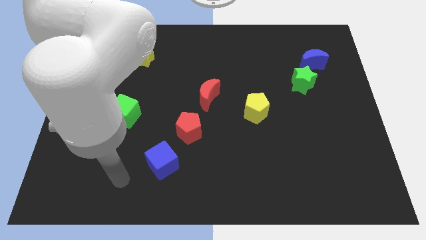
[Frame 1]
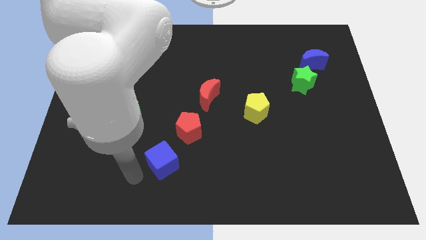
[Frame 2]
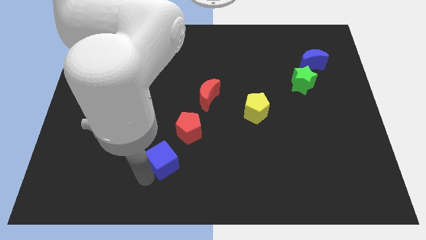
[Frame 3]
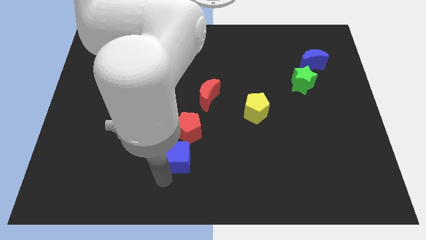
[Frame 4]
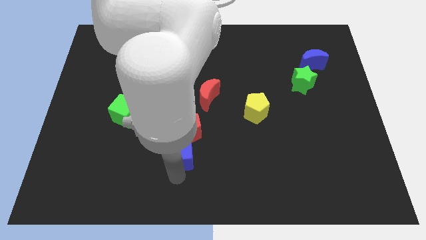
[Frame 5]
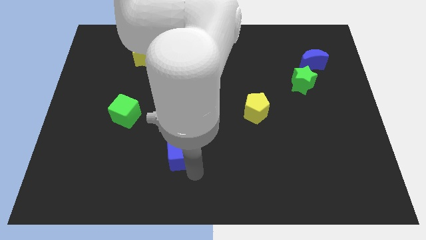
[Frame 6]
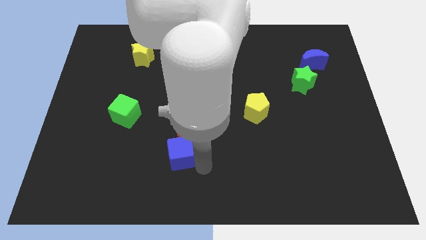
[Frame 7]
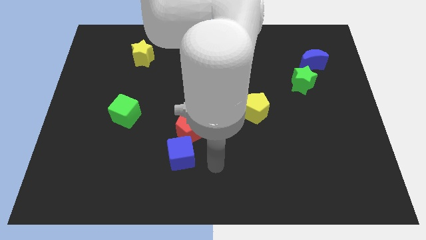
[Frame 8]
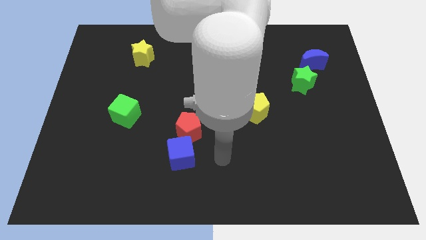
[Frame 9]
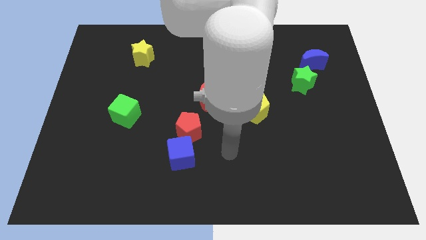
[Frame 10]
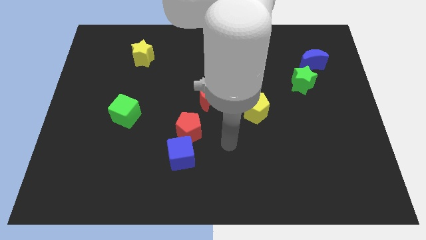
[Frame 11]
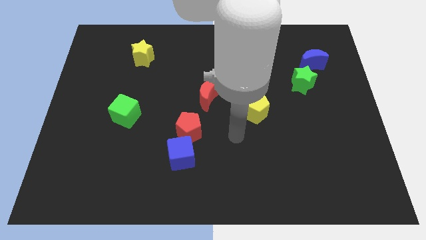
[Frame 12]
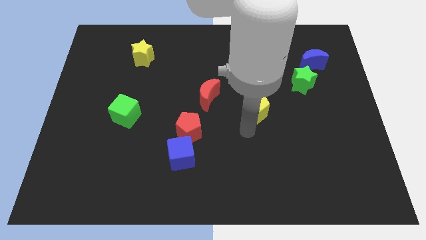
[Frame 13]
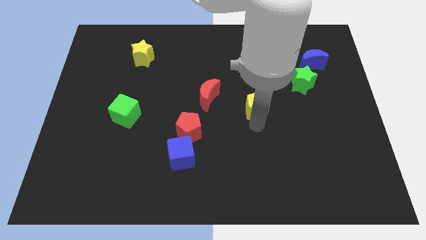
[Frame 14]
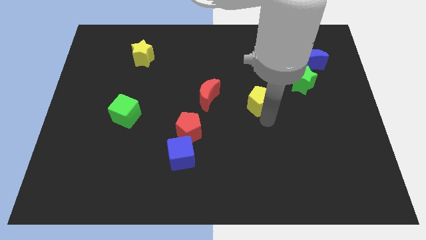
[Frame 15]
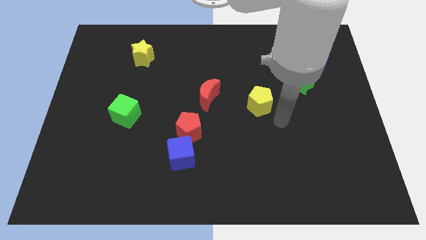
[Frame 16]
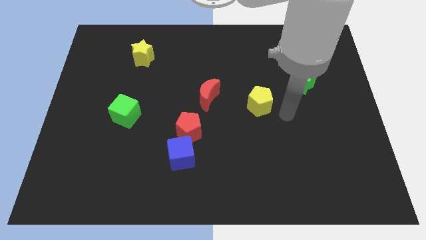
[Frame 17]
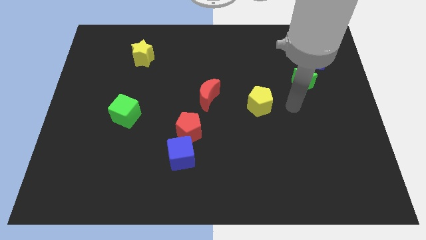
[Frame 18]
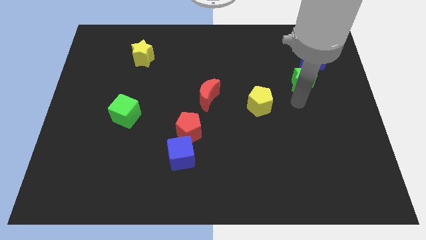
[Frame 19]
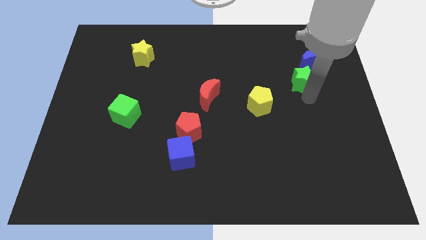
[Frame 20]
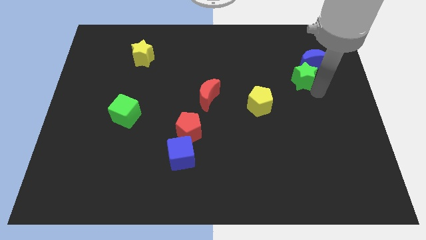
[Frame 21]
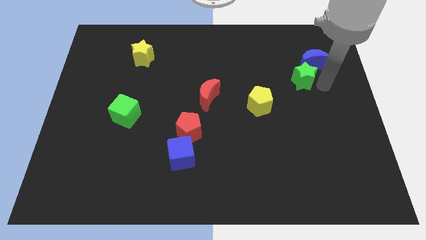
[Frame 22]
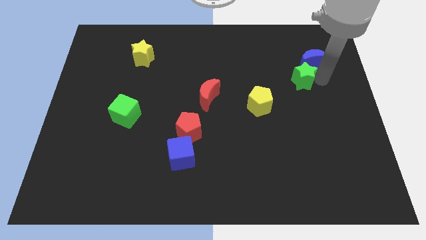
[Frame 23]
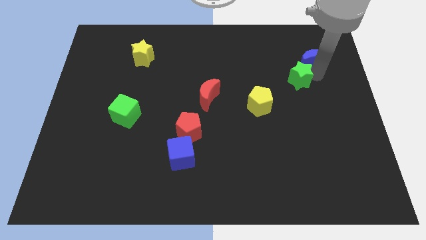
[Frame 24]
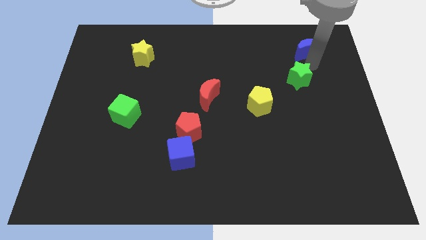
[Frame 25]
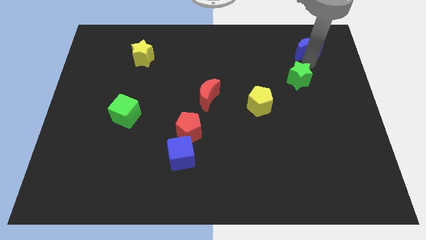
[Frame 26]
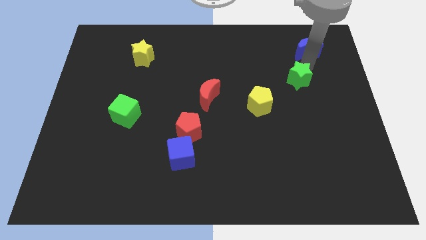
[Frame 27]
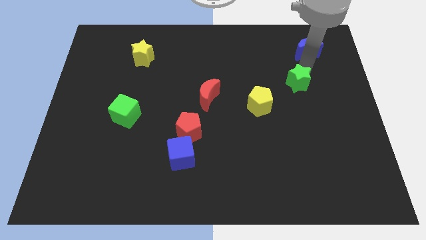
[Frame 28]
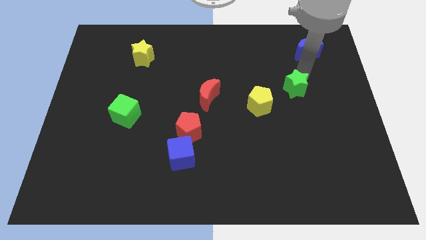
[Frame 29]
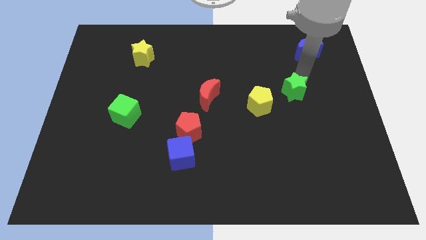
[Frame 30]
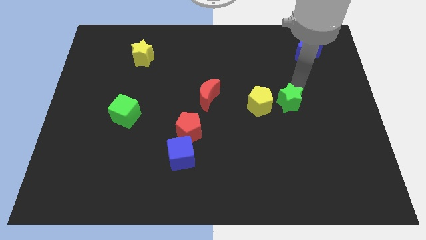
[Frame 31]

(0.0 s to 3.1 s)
slightly push the green star downwards and to the left

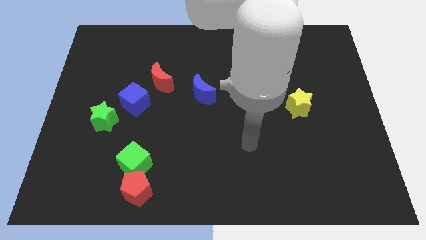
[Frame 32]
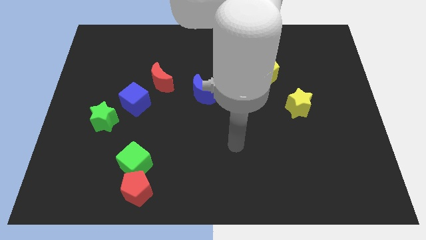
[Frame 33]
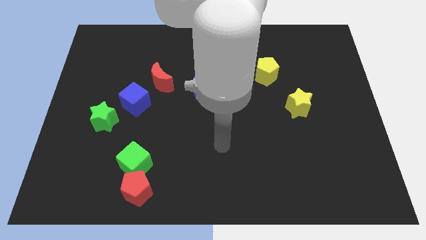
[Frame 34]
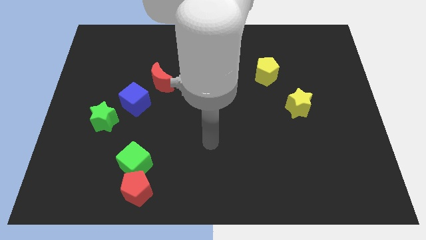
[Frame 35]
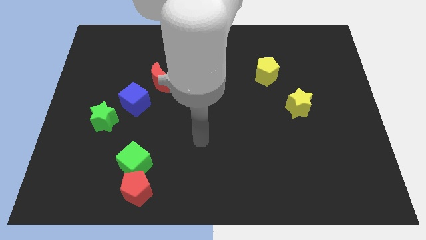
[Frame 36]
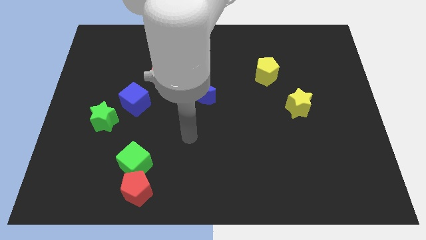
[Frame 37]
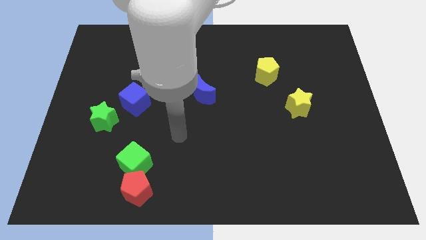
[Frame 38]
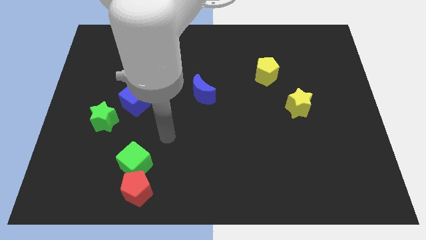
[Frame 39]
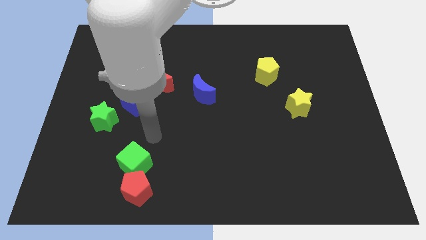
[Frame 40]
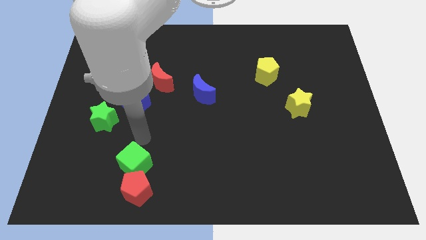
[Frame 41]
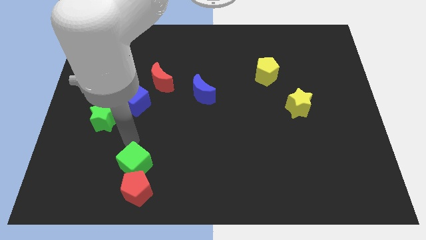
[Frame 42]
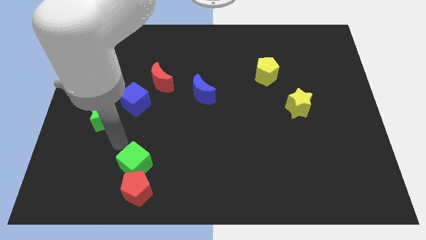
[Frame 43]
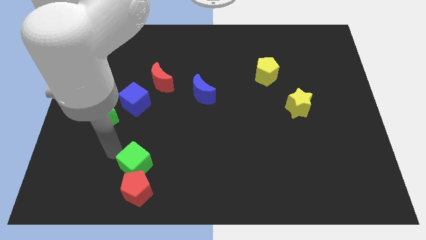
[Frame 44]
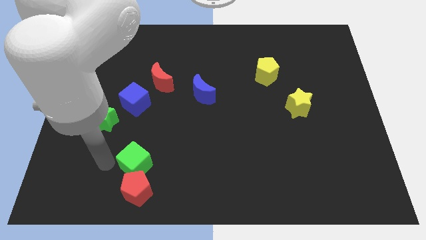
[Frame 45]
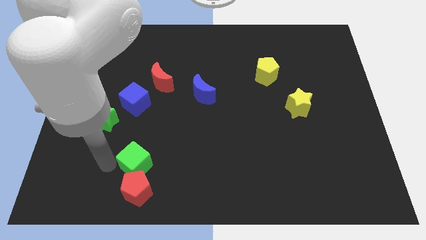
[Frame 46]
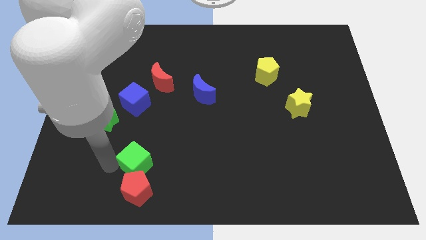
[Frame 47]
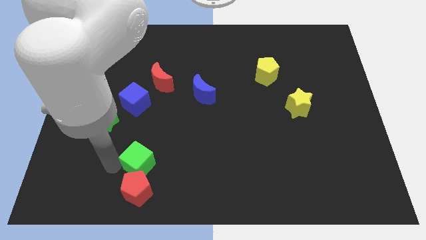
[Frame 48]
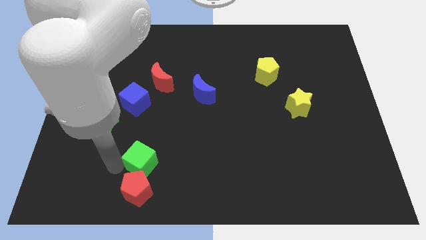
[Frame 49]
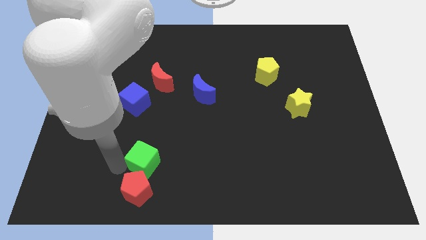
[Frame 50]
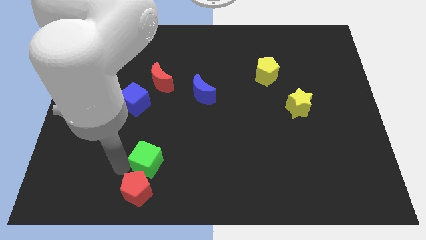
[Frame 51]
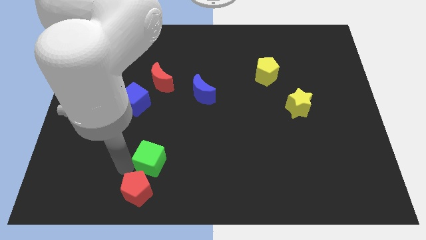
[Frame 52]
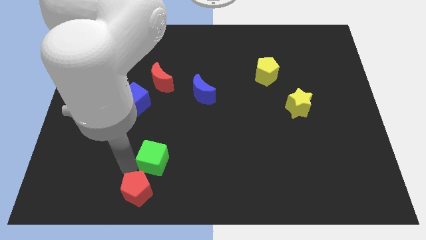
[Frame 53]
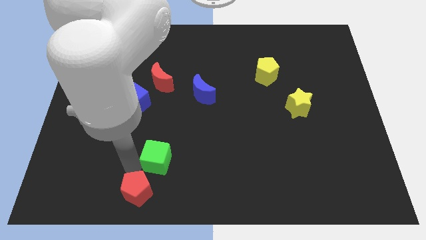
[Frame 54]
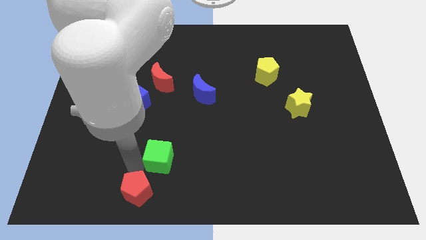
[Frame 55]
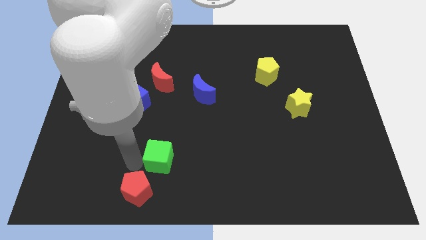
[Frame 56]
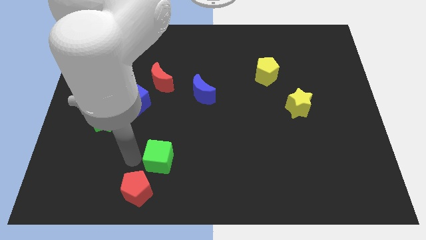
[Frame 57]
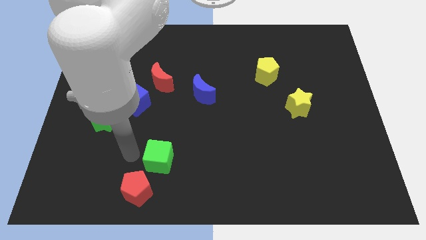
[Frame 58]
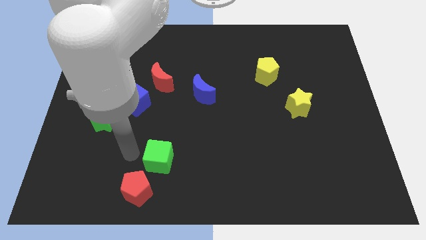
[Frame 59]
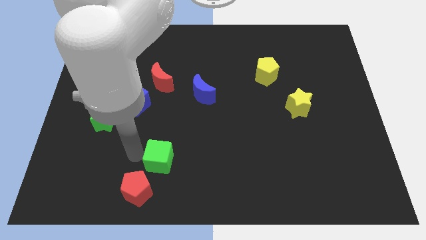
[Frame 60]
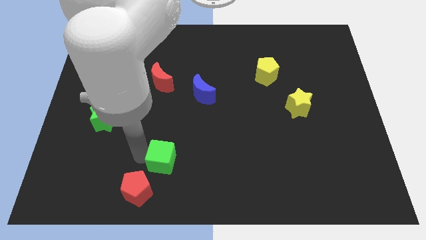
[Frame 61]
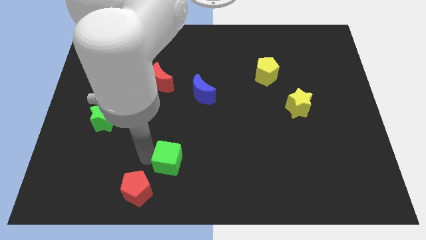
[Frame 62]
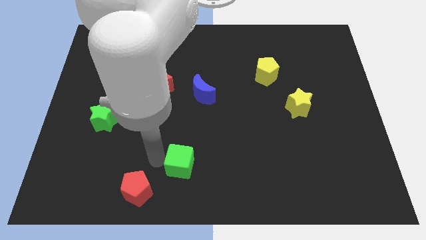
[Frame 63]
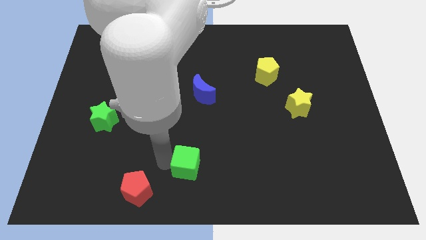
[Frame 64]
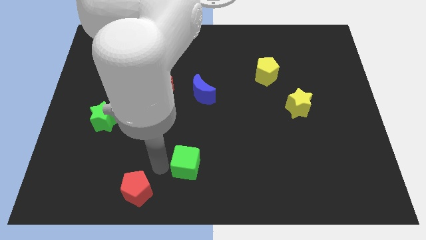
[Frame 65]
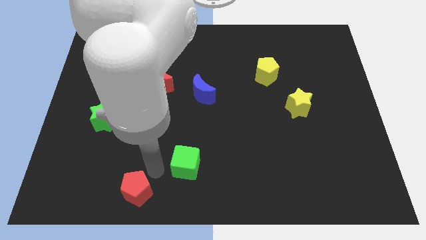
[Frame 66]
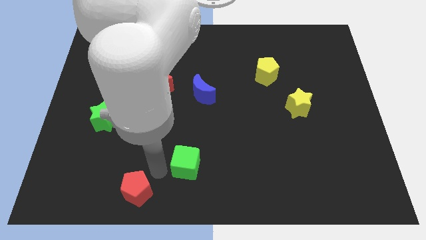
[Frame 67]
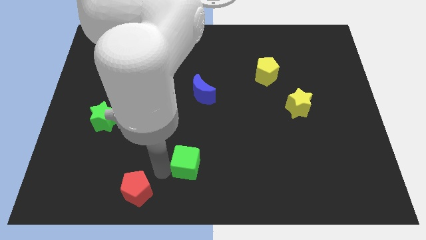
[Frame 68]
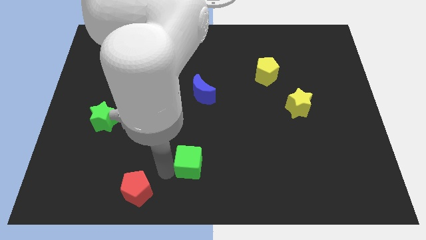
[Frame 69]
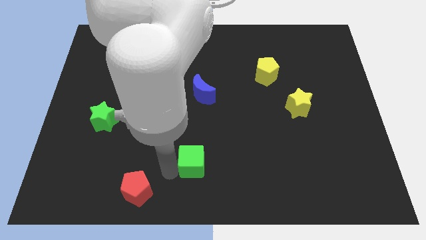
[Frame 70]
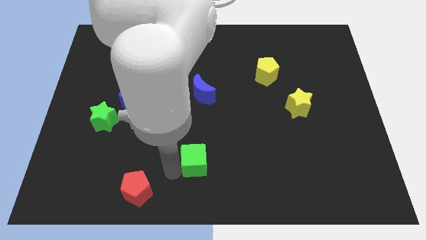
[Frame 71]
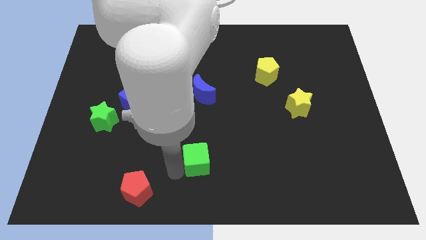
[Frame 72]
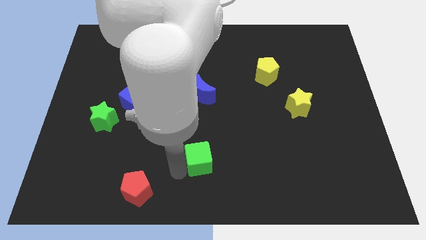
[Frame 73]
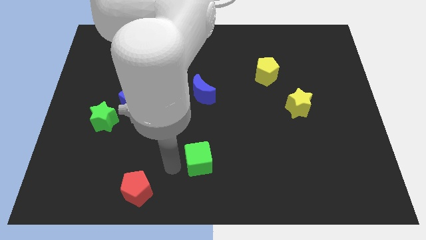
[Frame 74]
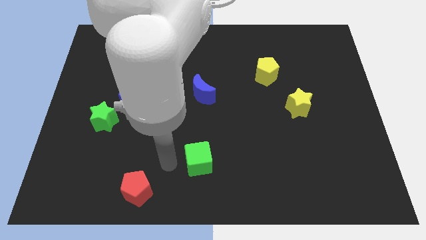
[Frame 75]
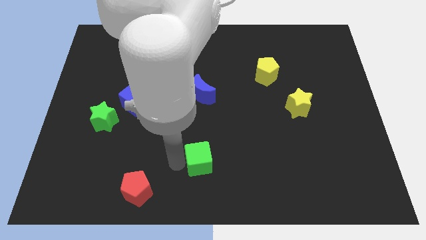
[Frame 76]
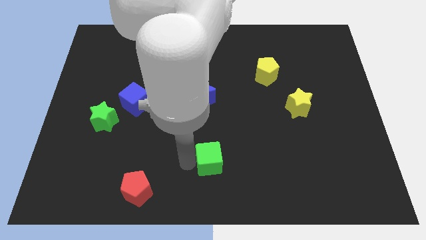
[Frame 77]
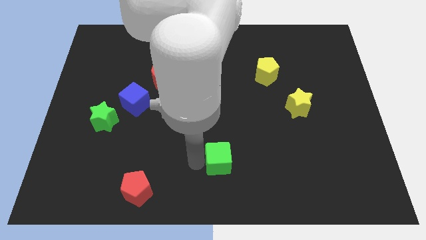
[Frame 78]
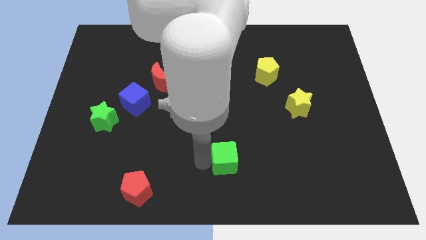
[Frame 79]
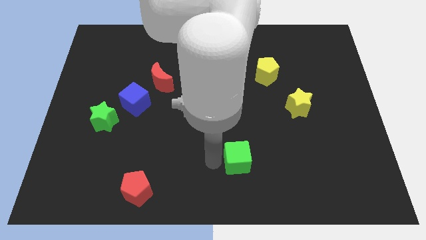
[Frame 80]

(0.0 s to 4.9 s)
move the green cube right

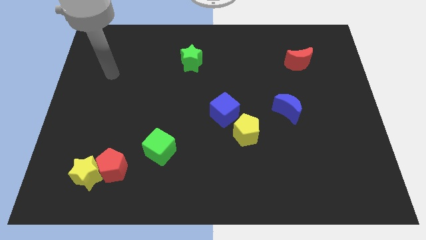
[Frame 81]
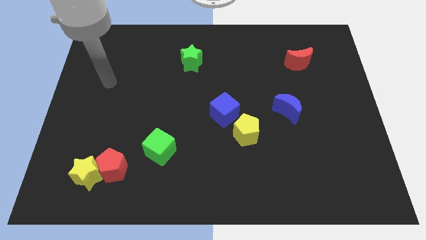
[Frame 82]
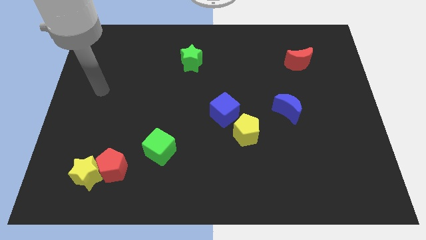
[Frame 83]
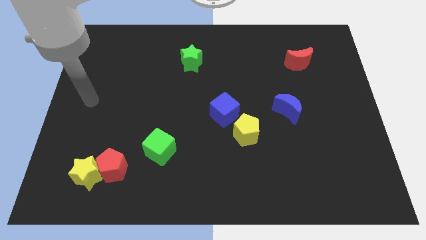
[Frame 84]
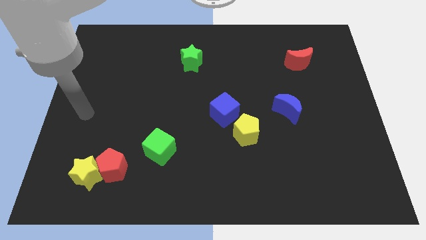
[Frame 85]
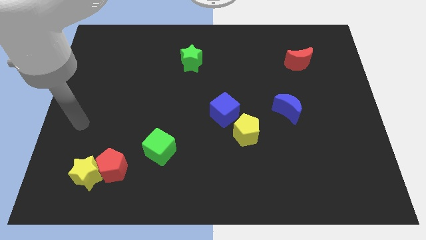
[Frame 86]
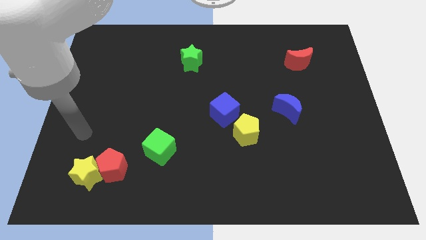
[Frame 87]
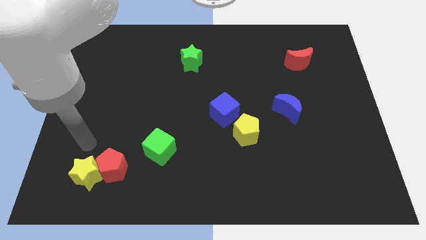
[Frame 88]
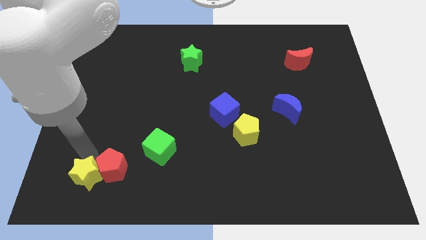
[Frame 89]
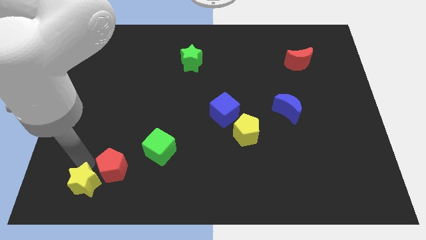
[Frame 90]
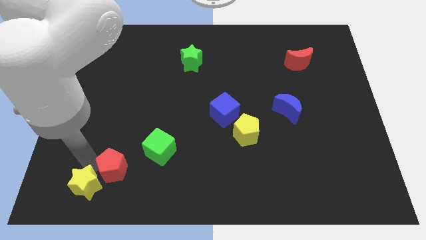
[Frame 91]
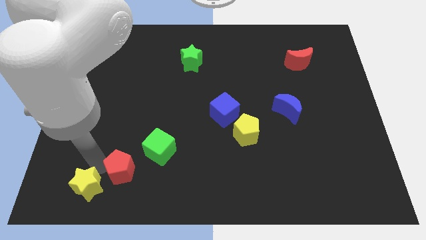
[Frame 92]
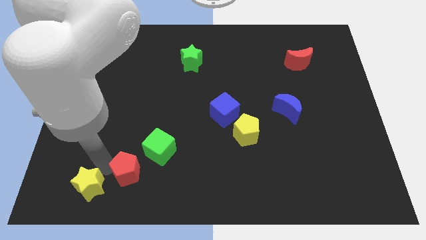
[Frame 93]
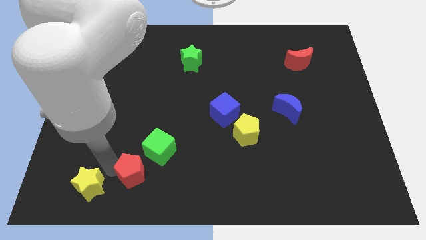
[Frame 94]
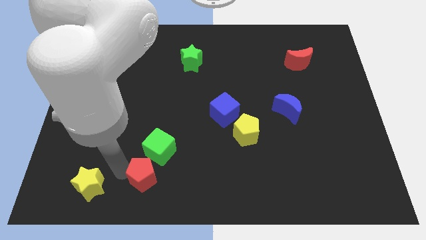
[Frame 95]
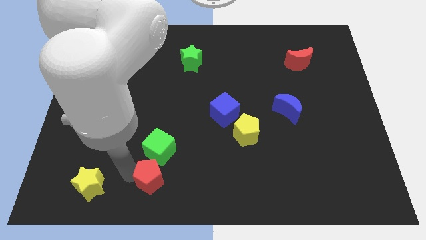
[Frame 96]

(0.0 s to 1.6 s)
slightly move the red pentagon right
